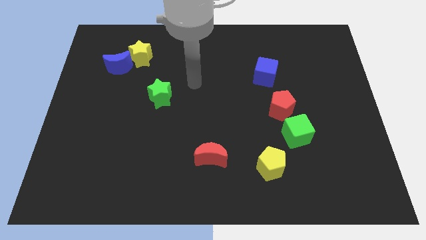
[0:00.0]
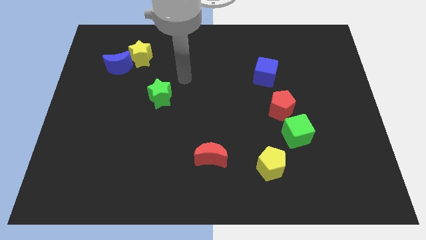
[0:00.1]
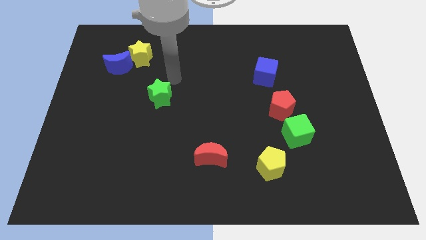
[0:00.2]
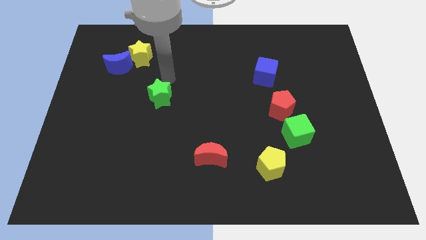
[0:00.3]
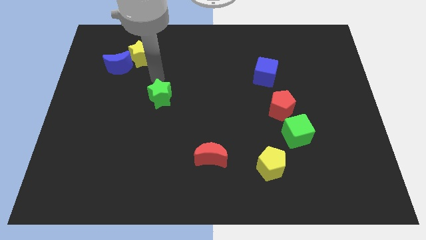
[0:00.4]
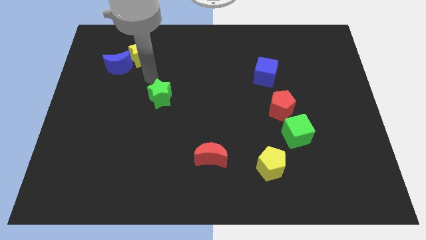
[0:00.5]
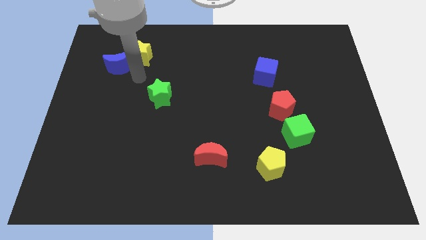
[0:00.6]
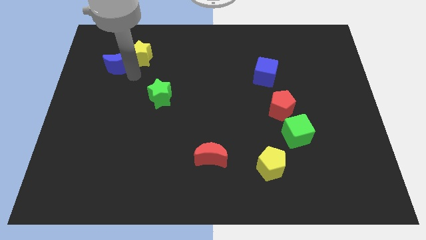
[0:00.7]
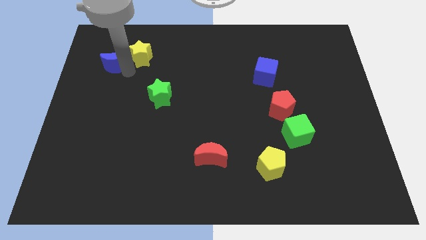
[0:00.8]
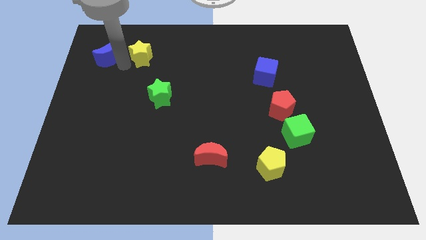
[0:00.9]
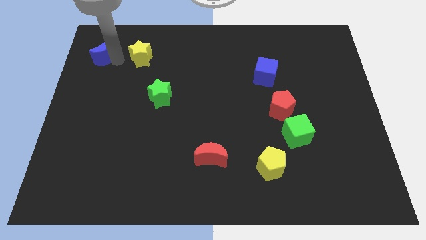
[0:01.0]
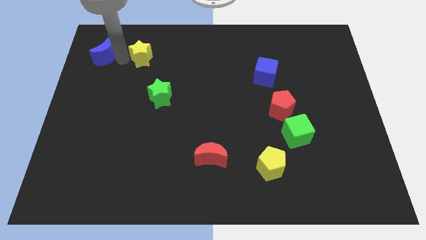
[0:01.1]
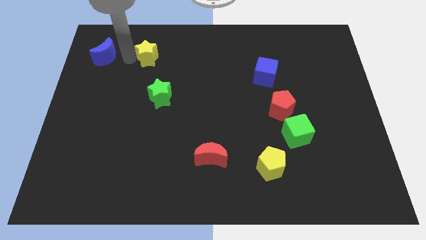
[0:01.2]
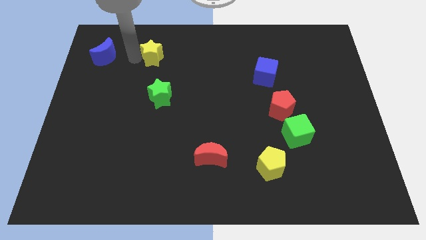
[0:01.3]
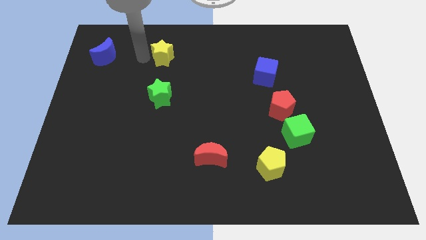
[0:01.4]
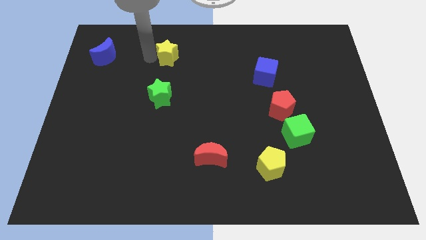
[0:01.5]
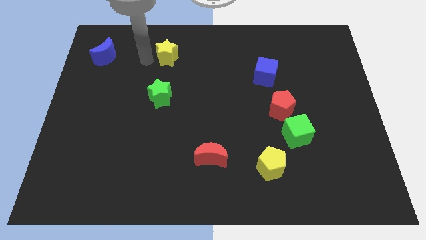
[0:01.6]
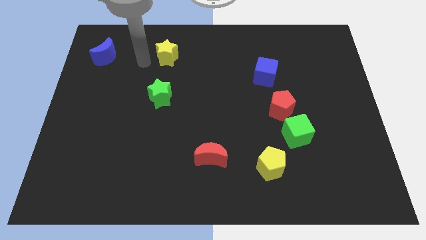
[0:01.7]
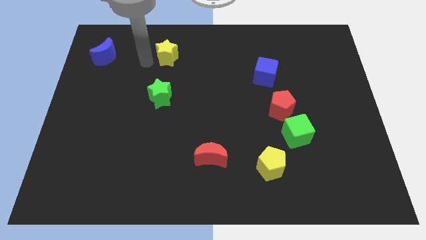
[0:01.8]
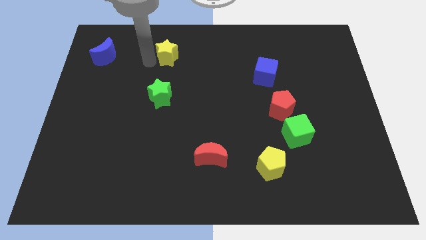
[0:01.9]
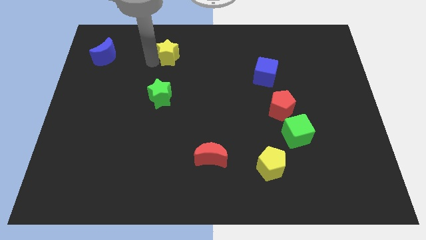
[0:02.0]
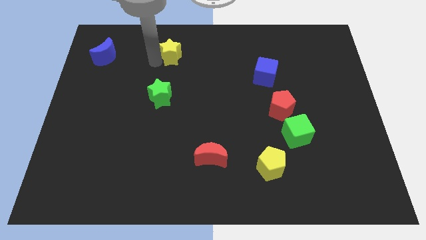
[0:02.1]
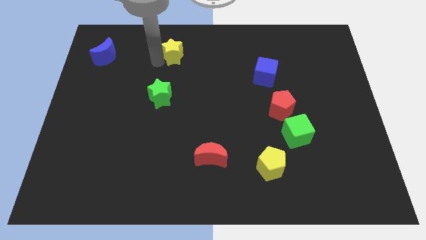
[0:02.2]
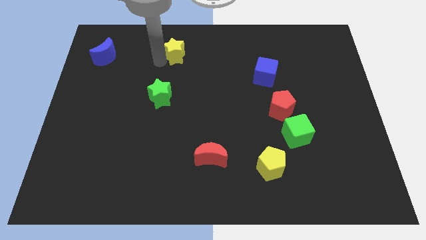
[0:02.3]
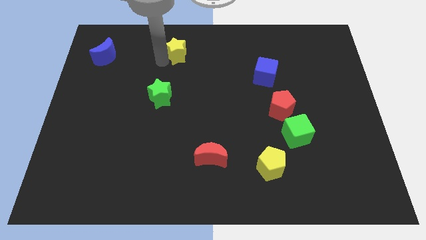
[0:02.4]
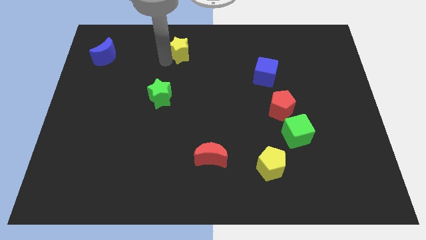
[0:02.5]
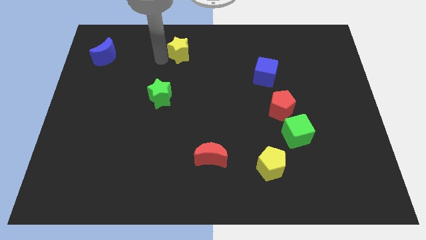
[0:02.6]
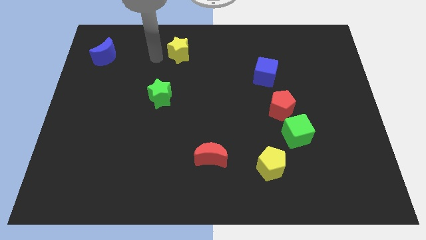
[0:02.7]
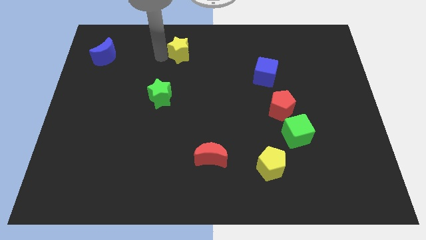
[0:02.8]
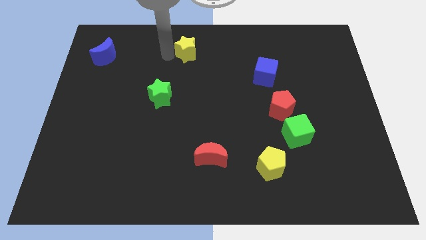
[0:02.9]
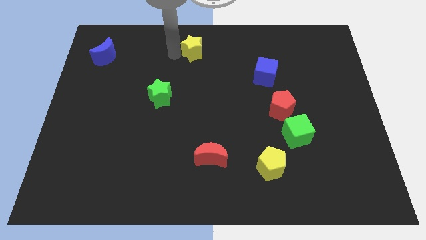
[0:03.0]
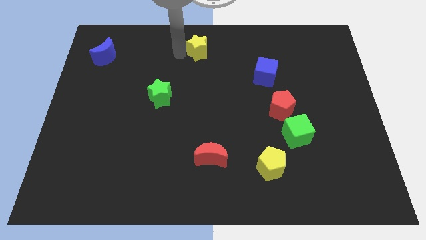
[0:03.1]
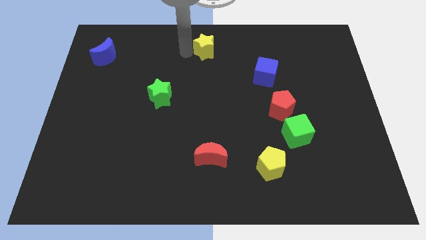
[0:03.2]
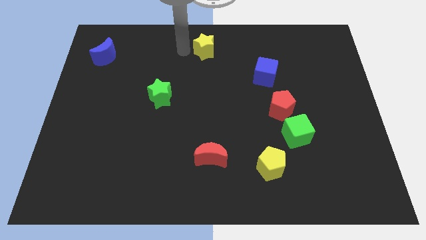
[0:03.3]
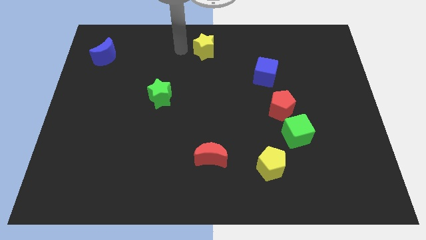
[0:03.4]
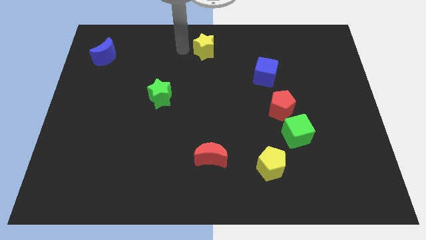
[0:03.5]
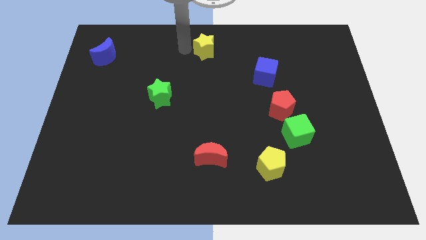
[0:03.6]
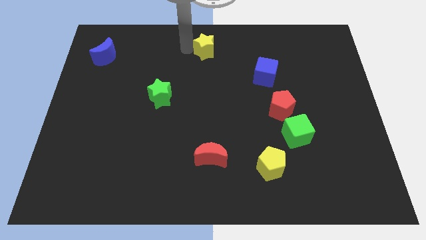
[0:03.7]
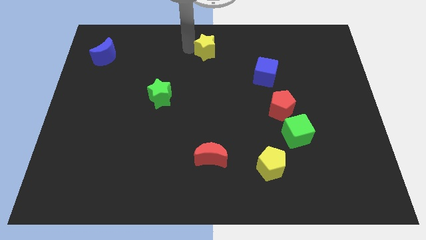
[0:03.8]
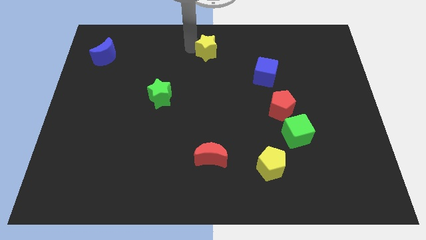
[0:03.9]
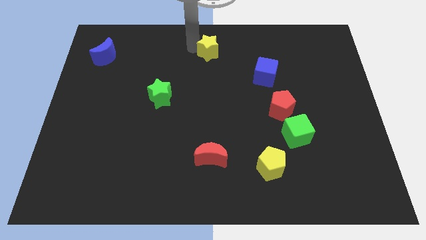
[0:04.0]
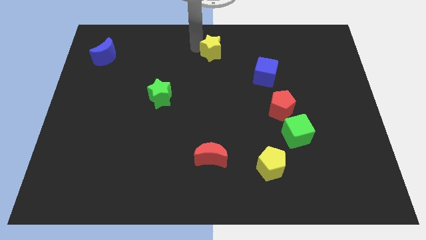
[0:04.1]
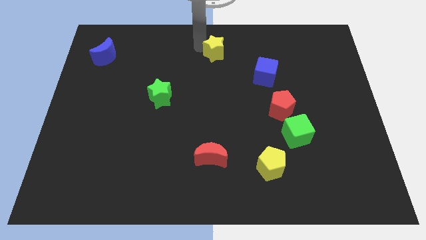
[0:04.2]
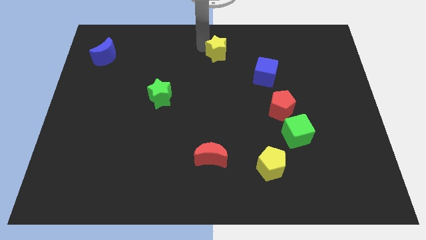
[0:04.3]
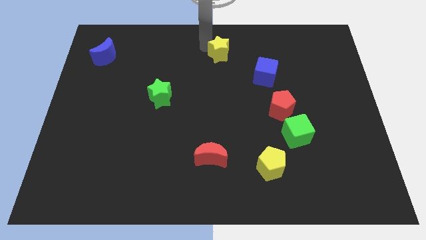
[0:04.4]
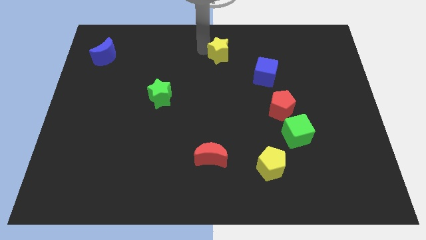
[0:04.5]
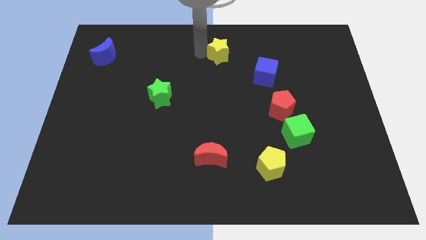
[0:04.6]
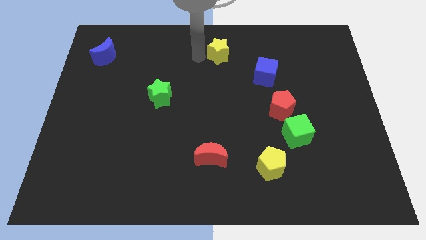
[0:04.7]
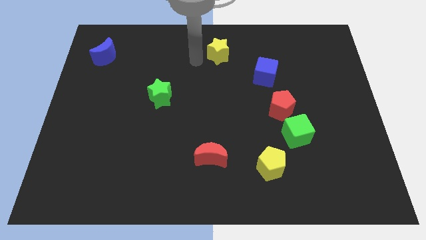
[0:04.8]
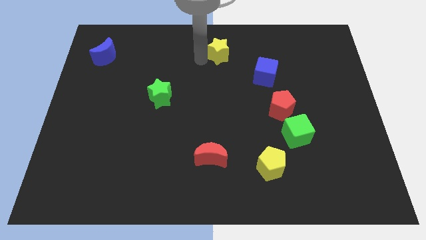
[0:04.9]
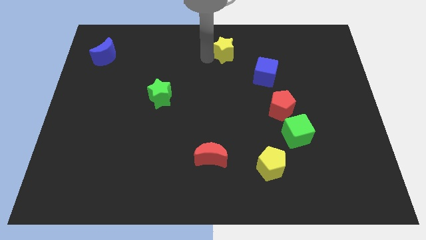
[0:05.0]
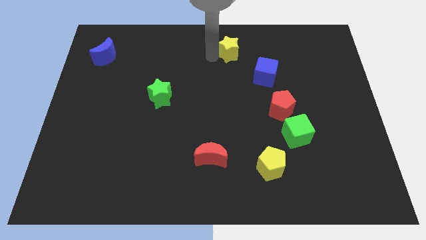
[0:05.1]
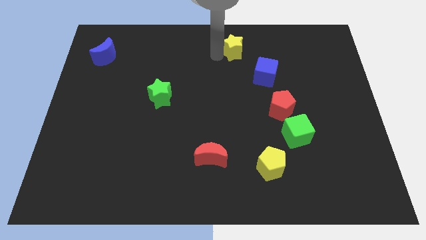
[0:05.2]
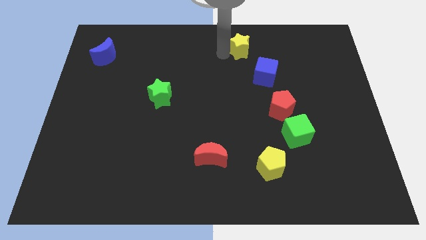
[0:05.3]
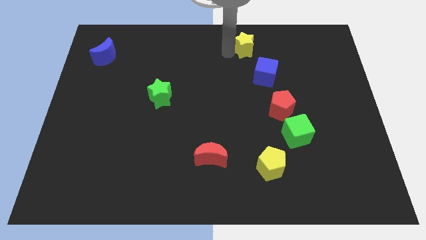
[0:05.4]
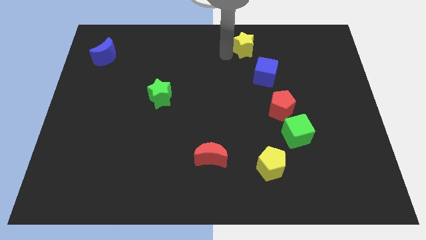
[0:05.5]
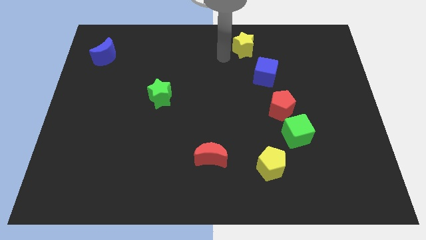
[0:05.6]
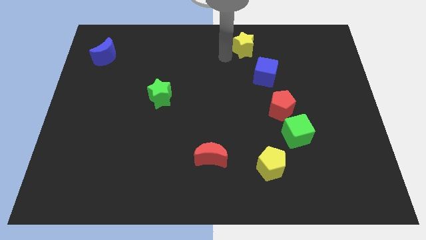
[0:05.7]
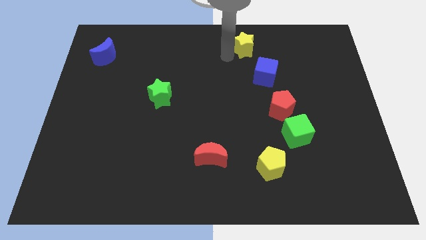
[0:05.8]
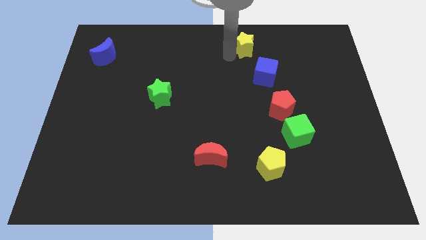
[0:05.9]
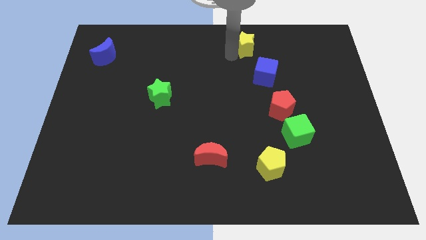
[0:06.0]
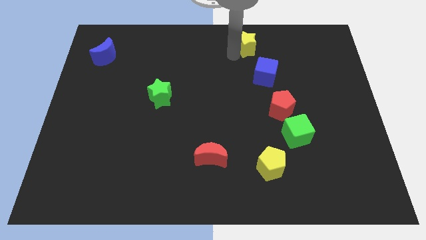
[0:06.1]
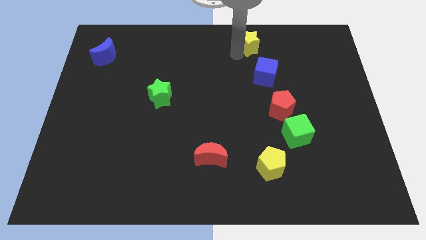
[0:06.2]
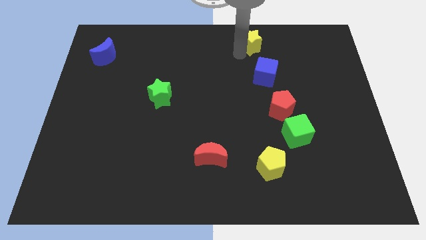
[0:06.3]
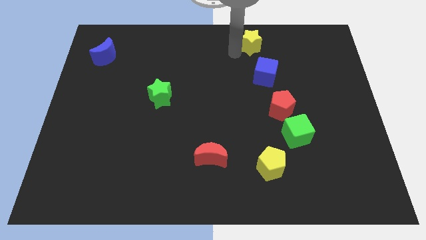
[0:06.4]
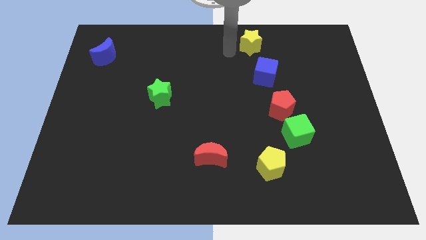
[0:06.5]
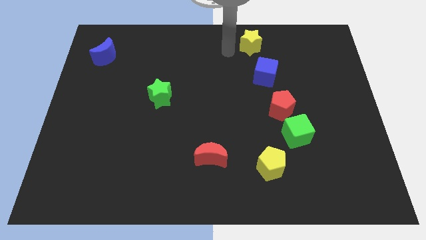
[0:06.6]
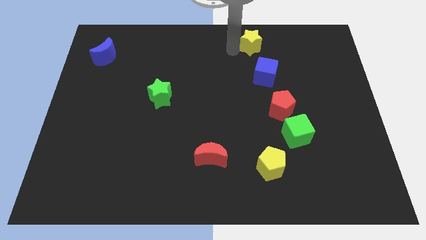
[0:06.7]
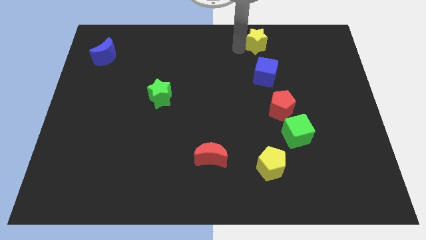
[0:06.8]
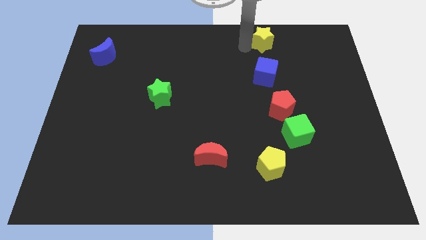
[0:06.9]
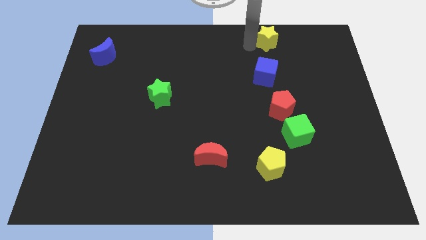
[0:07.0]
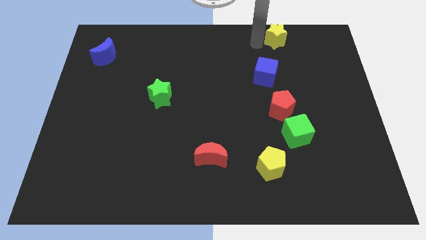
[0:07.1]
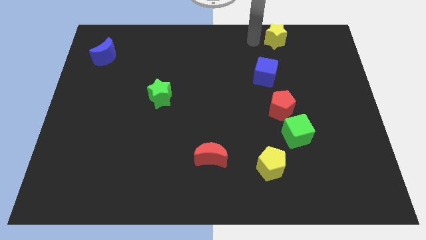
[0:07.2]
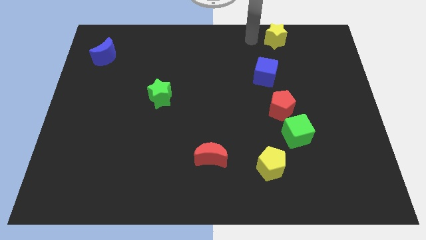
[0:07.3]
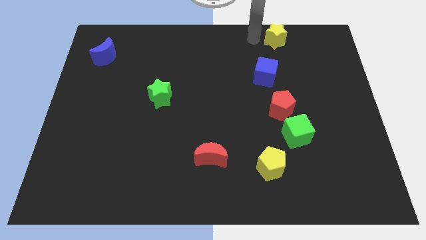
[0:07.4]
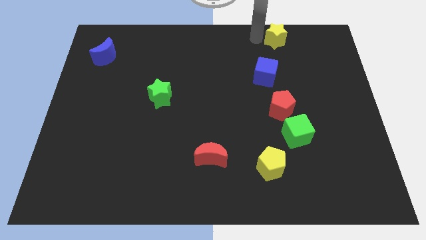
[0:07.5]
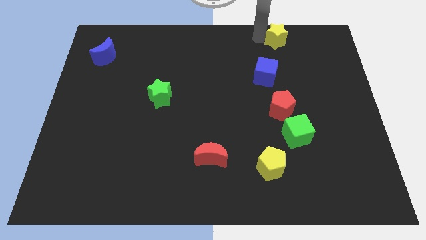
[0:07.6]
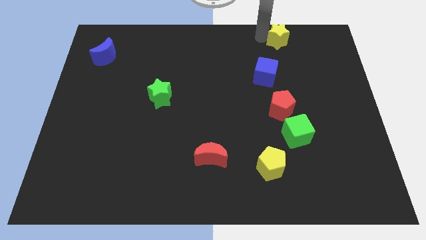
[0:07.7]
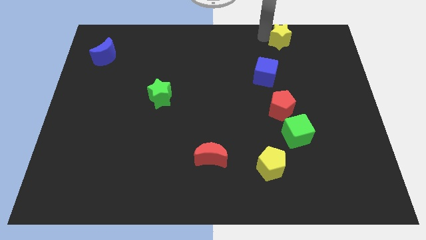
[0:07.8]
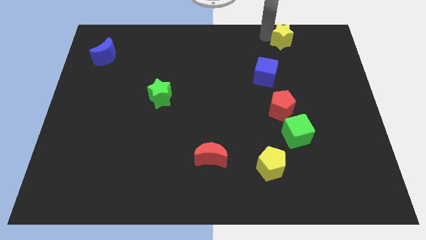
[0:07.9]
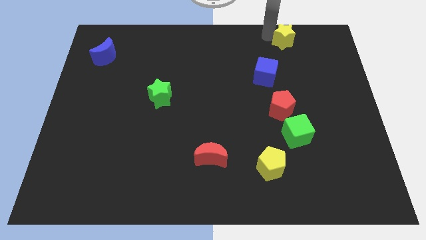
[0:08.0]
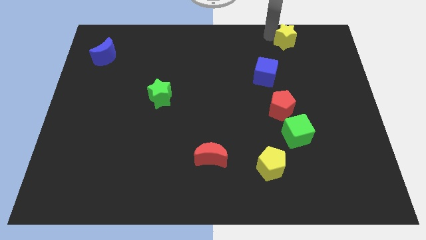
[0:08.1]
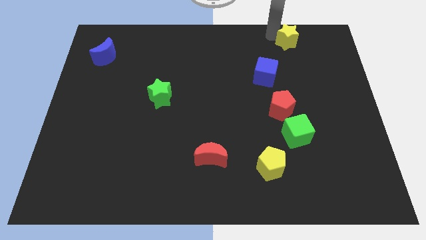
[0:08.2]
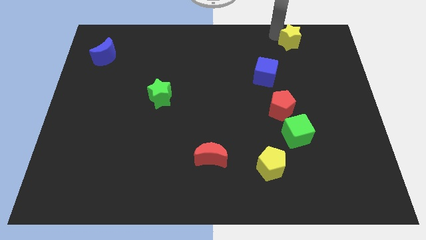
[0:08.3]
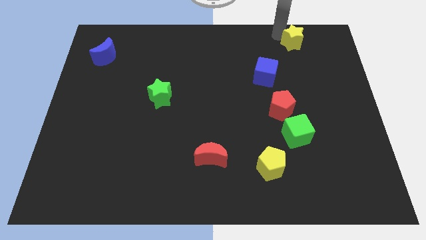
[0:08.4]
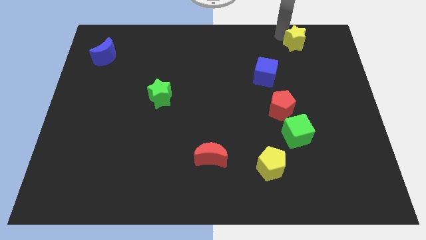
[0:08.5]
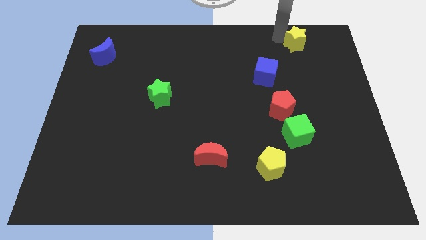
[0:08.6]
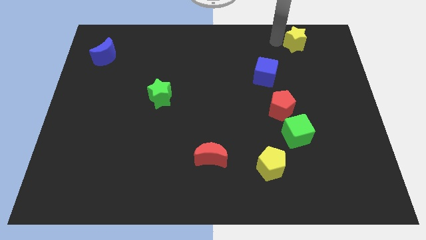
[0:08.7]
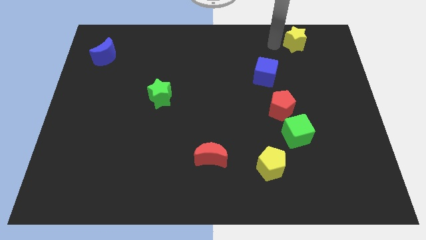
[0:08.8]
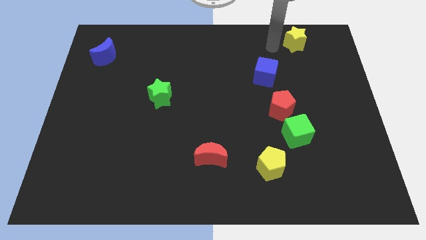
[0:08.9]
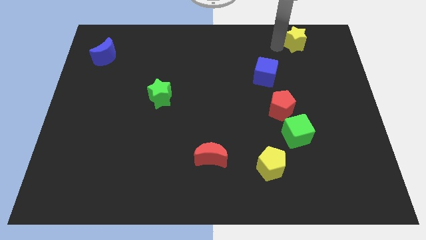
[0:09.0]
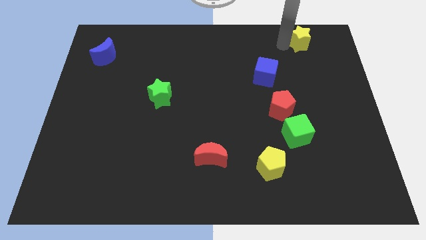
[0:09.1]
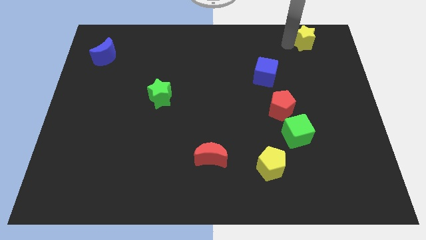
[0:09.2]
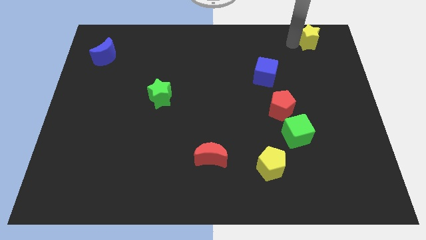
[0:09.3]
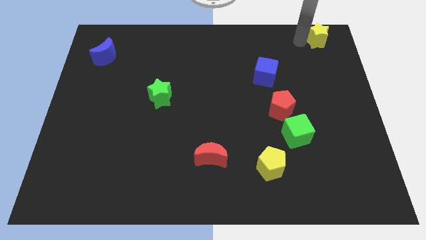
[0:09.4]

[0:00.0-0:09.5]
push the yellow star to the top right of the board
